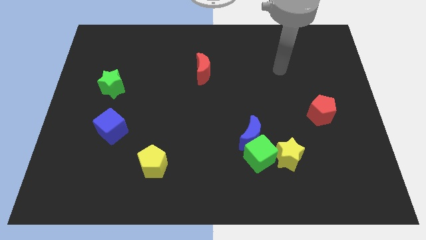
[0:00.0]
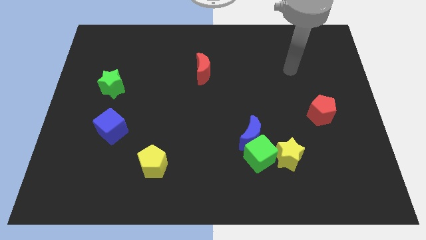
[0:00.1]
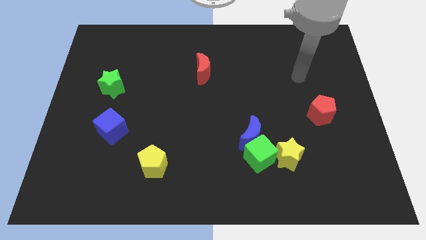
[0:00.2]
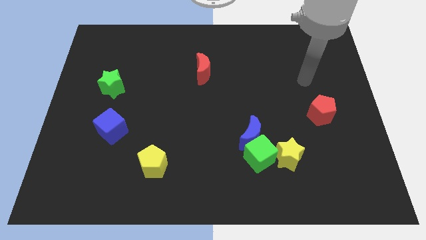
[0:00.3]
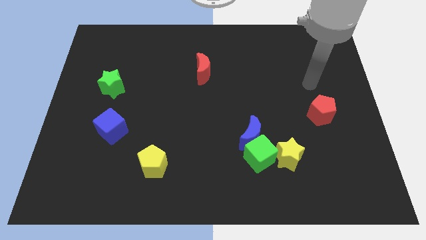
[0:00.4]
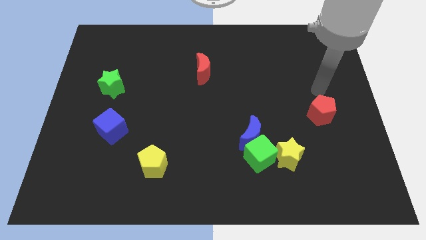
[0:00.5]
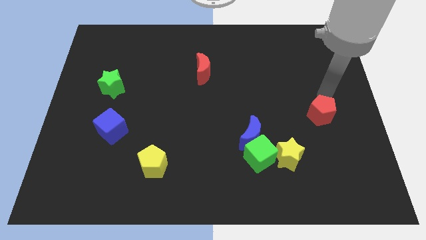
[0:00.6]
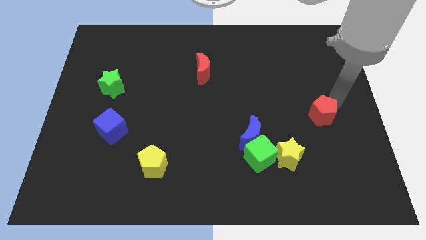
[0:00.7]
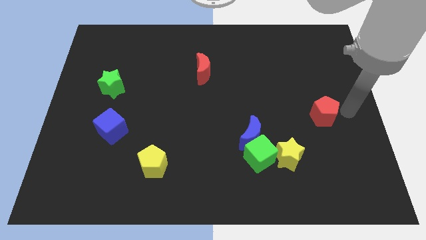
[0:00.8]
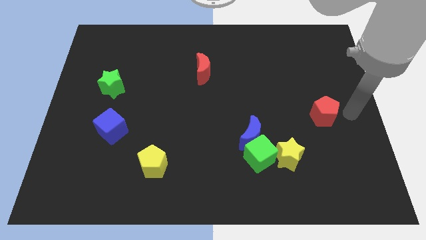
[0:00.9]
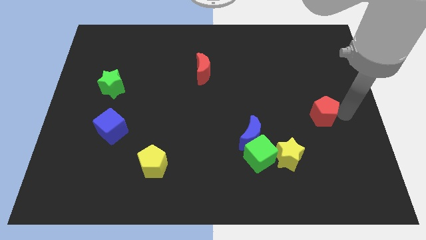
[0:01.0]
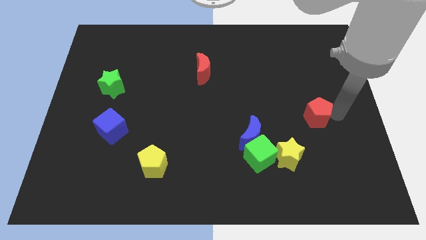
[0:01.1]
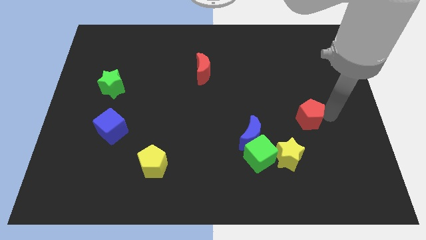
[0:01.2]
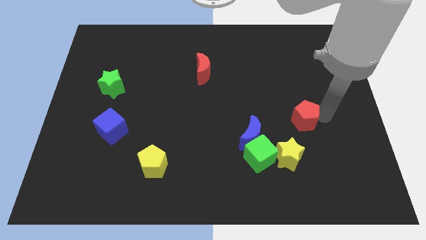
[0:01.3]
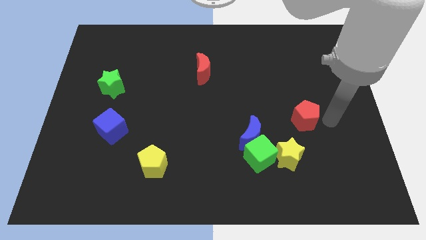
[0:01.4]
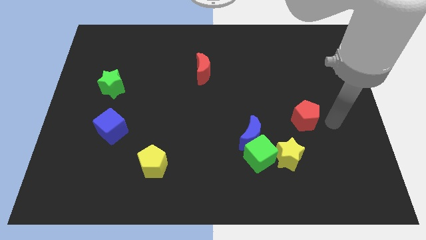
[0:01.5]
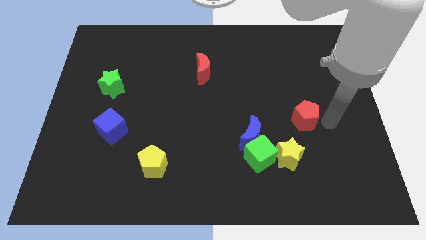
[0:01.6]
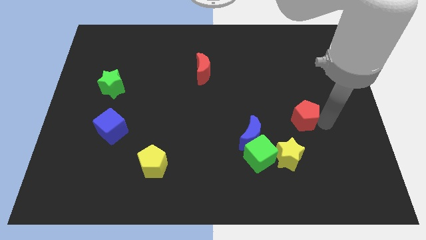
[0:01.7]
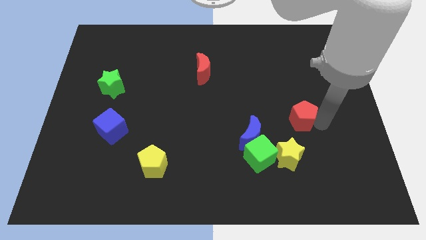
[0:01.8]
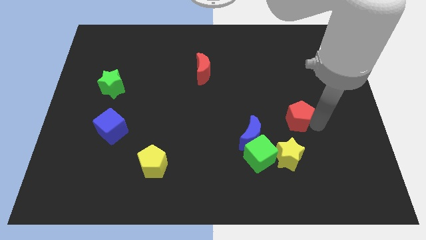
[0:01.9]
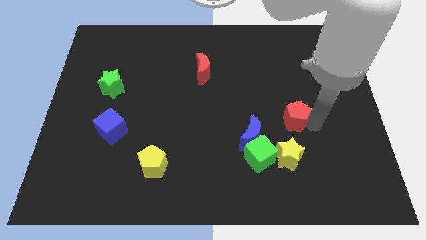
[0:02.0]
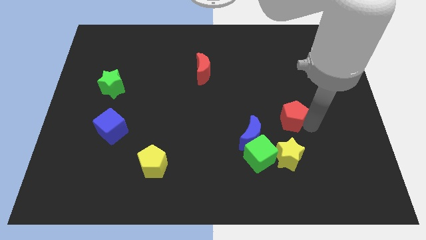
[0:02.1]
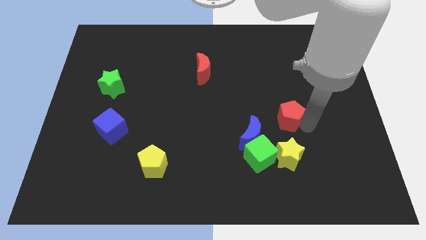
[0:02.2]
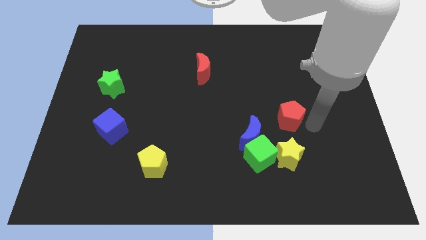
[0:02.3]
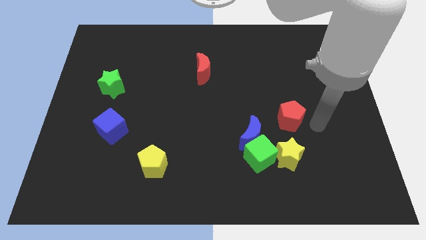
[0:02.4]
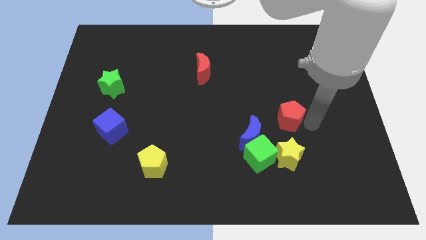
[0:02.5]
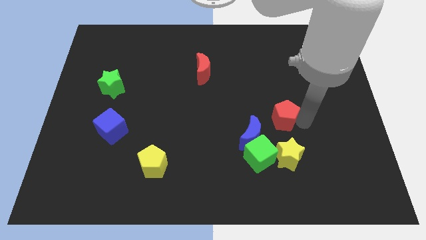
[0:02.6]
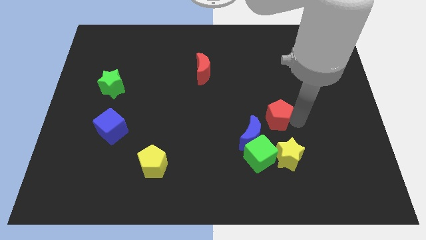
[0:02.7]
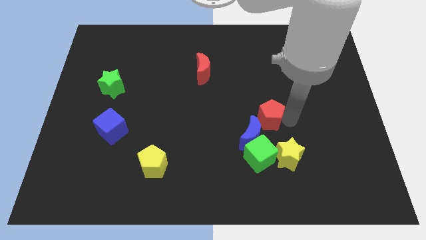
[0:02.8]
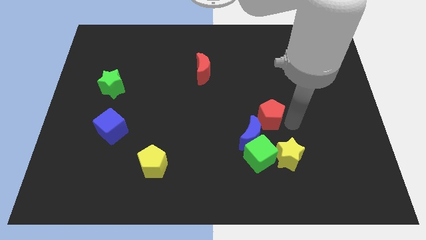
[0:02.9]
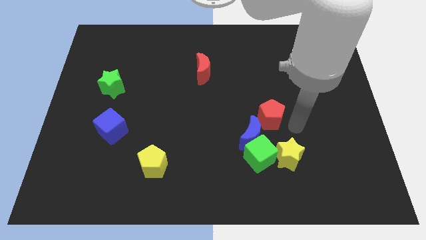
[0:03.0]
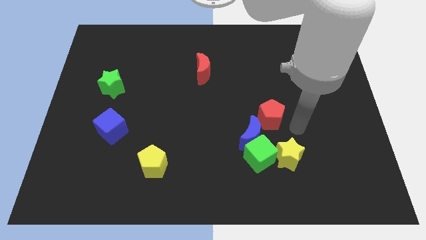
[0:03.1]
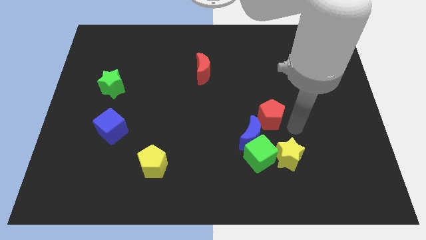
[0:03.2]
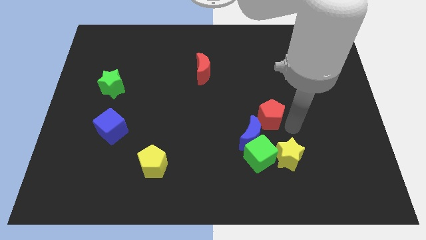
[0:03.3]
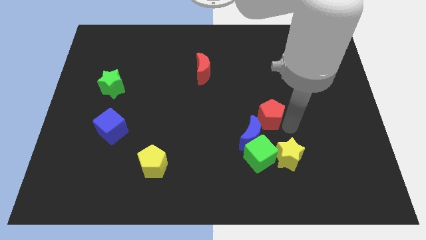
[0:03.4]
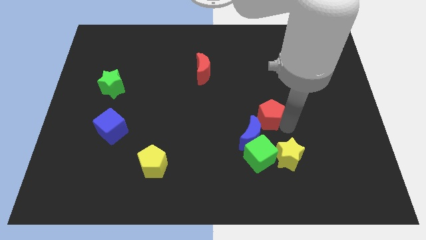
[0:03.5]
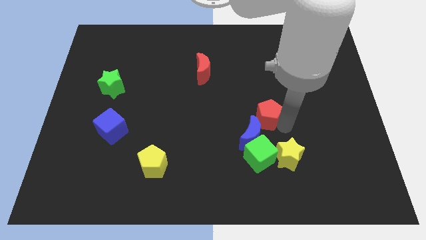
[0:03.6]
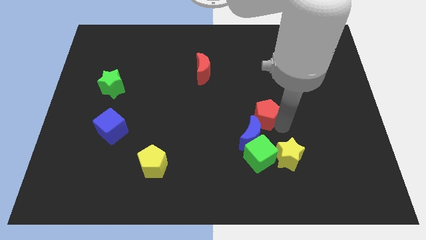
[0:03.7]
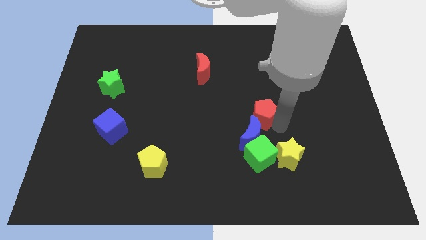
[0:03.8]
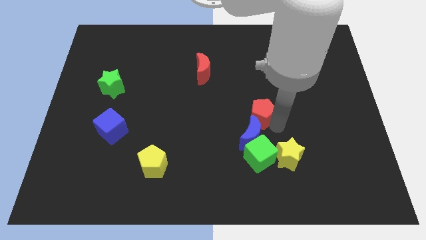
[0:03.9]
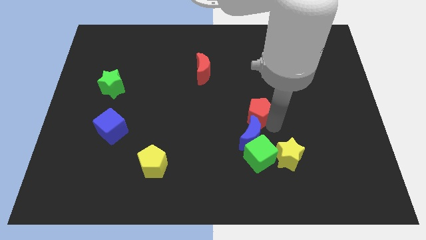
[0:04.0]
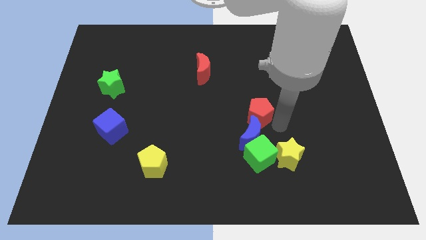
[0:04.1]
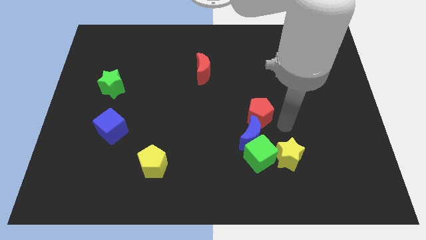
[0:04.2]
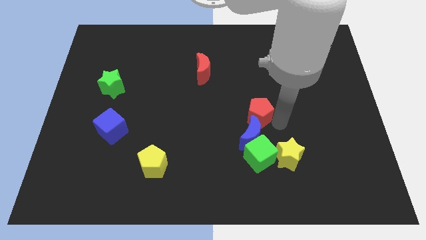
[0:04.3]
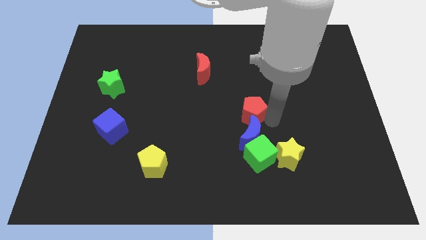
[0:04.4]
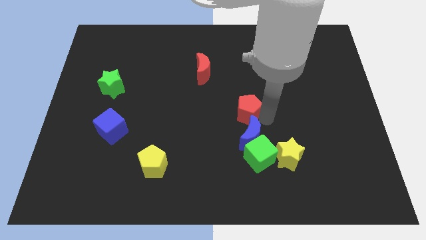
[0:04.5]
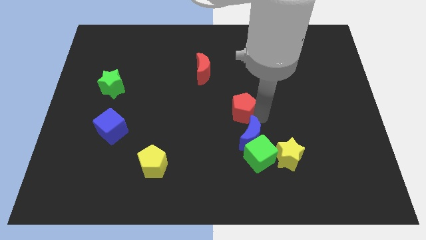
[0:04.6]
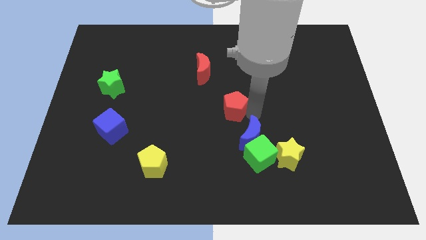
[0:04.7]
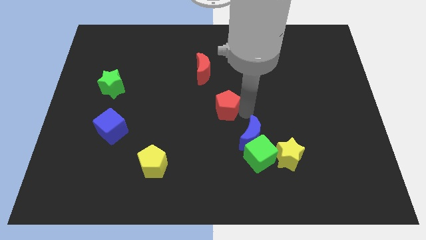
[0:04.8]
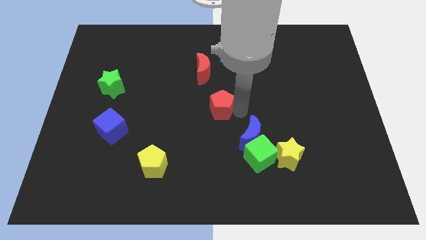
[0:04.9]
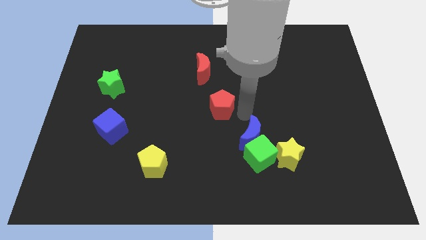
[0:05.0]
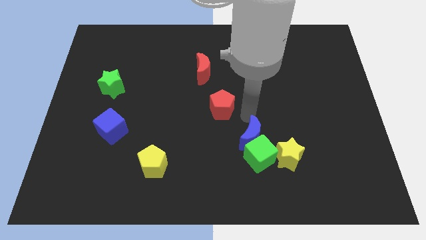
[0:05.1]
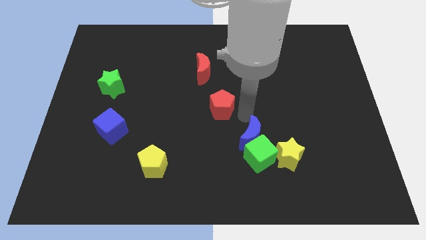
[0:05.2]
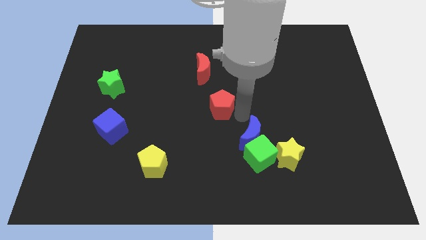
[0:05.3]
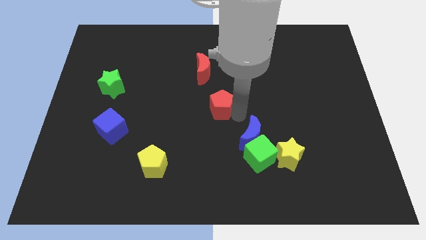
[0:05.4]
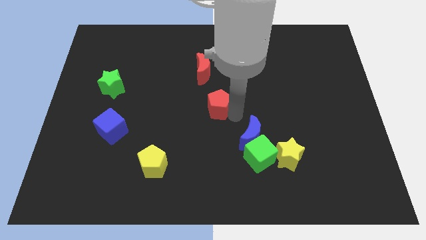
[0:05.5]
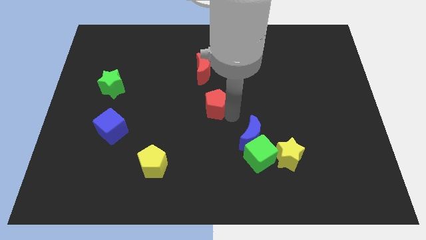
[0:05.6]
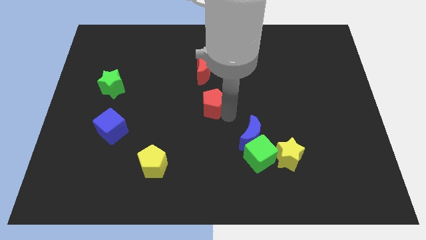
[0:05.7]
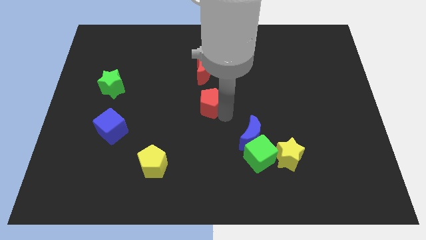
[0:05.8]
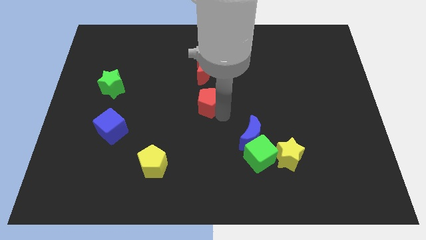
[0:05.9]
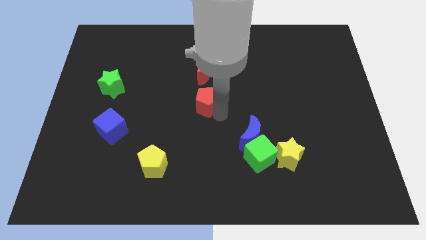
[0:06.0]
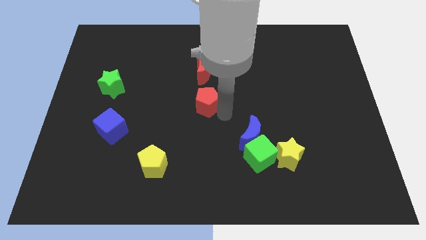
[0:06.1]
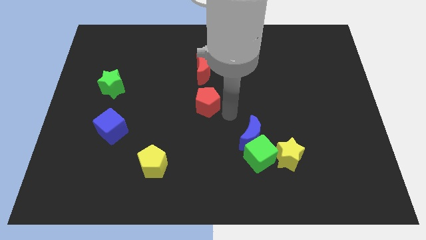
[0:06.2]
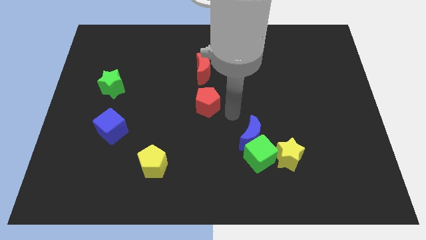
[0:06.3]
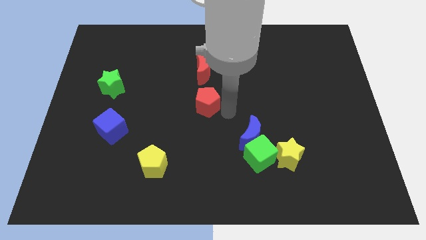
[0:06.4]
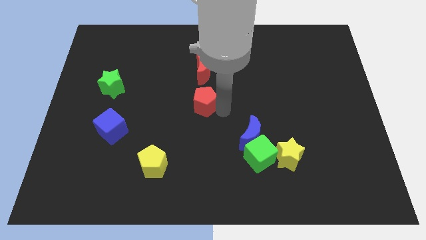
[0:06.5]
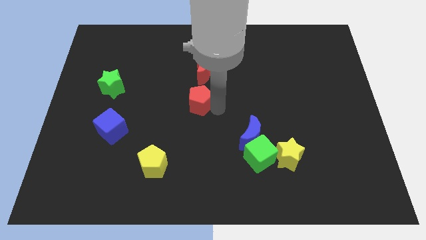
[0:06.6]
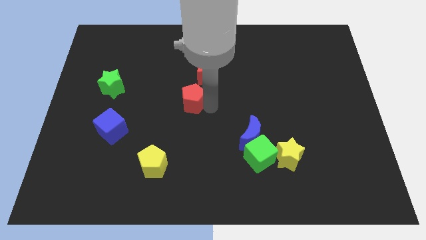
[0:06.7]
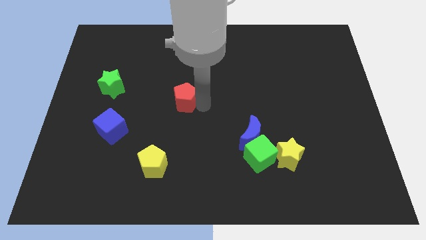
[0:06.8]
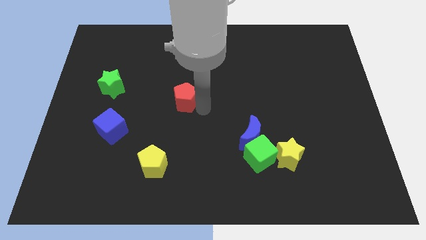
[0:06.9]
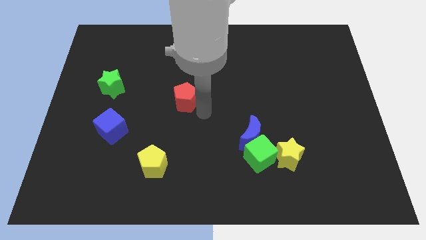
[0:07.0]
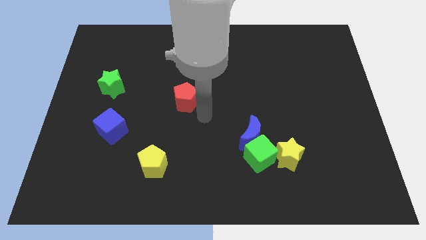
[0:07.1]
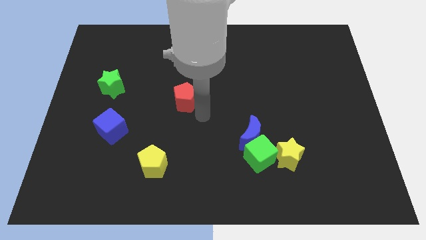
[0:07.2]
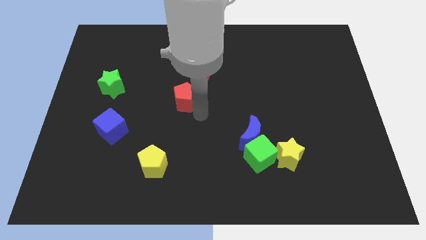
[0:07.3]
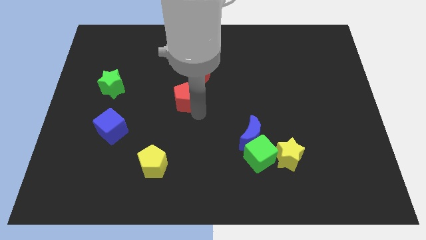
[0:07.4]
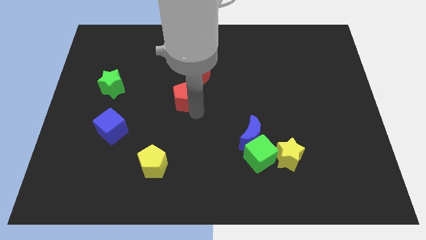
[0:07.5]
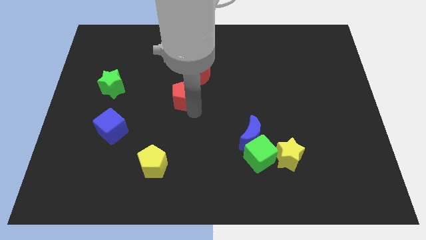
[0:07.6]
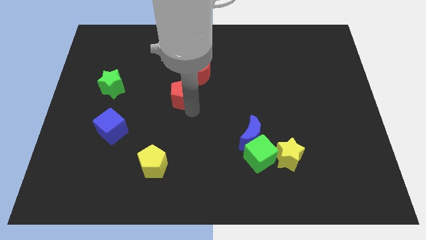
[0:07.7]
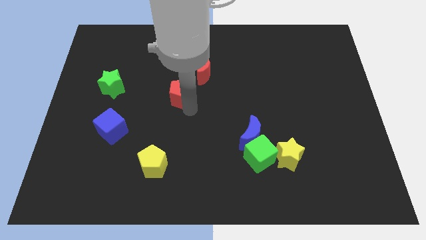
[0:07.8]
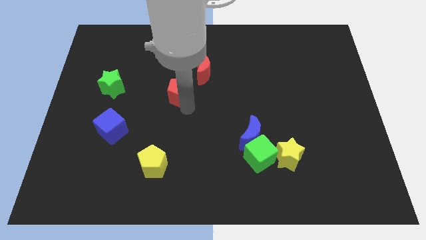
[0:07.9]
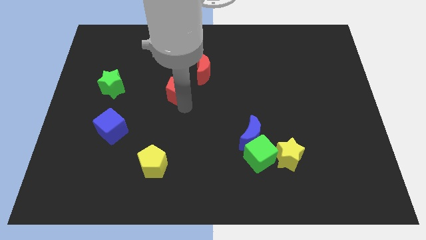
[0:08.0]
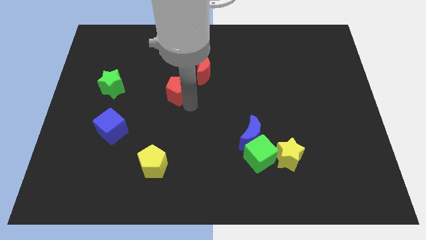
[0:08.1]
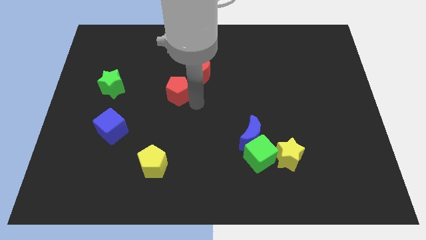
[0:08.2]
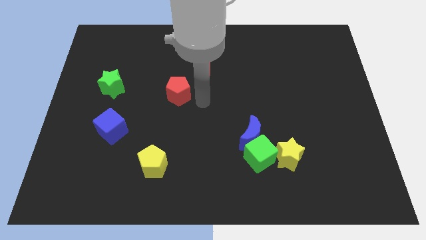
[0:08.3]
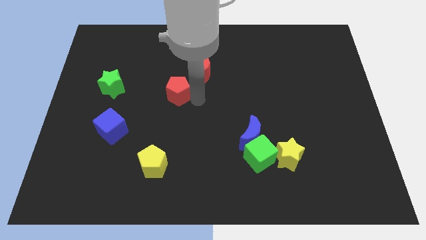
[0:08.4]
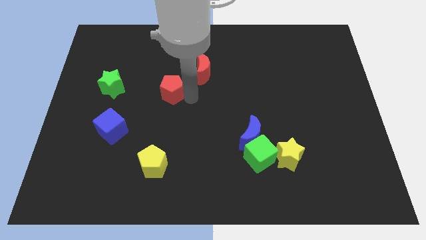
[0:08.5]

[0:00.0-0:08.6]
move the red pentagon right of the green star
